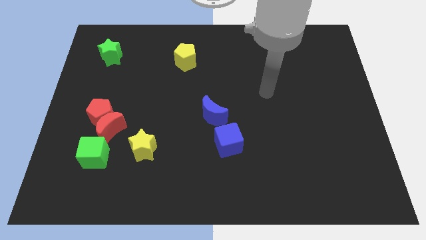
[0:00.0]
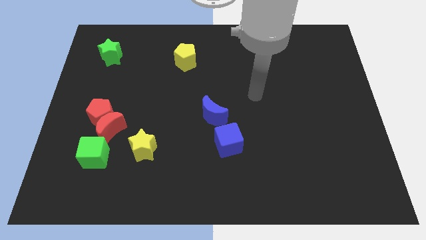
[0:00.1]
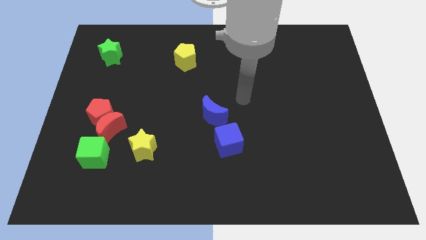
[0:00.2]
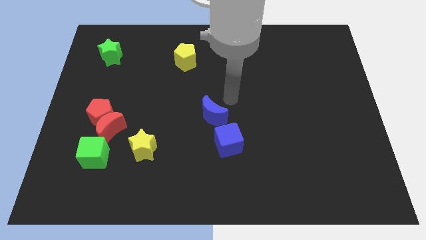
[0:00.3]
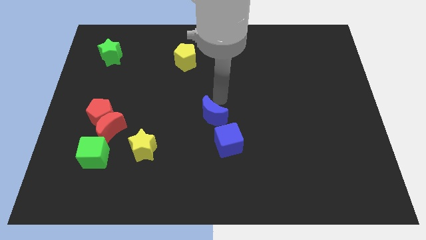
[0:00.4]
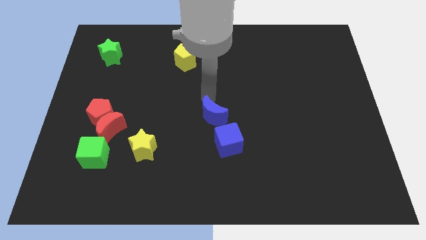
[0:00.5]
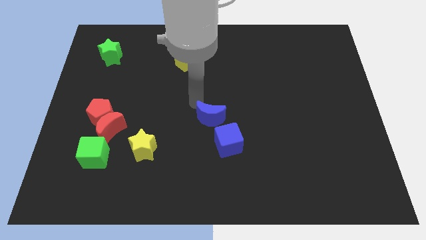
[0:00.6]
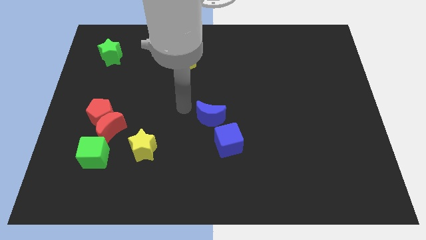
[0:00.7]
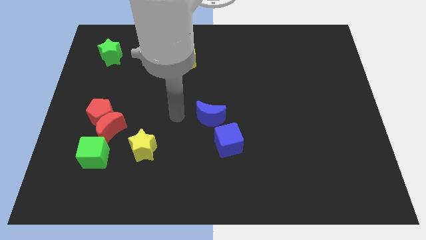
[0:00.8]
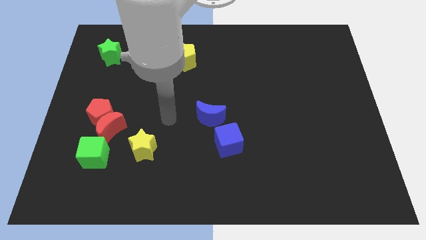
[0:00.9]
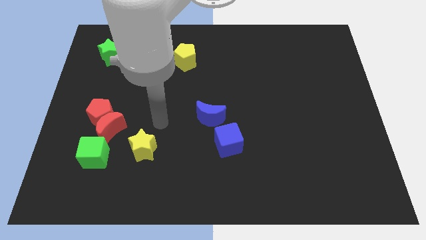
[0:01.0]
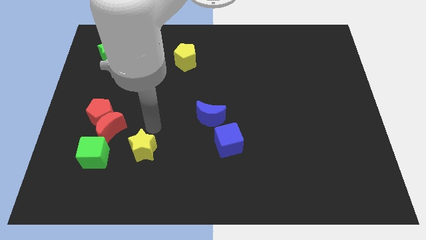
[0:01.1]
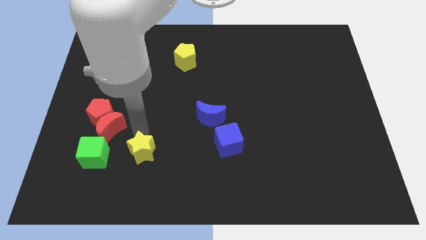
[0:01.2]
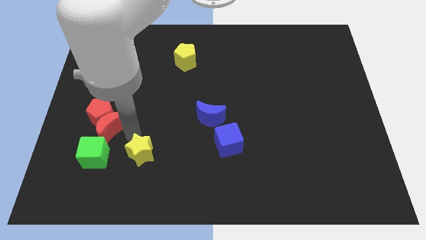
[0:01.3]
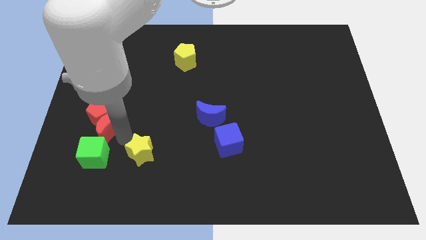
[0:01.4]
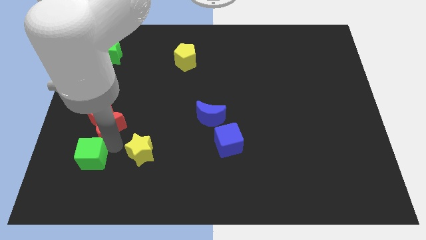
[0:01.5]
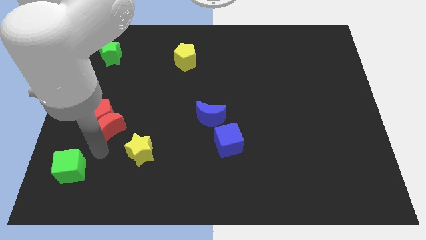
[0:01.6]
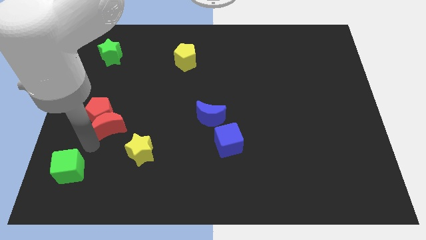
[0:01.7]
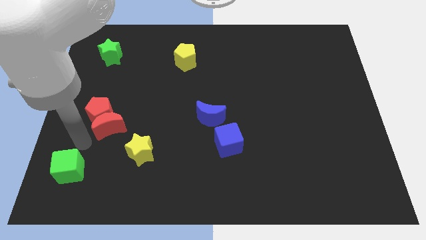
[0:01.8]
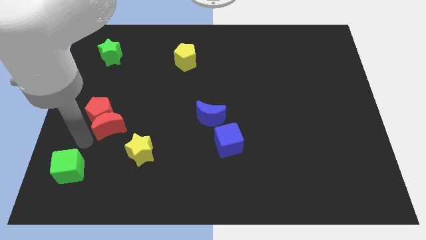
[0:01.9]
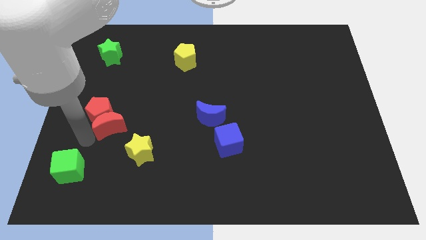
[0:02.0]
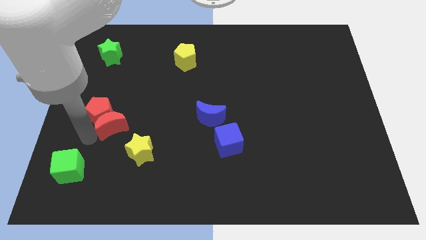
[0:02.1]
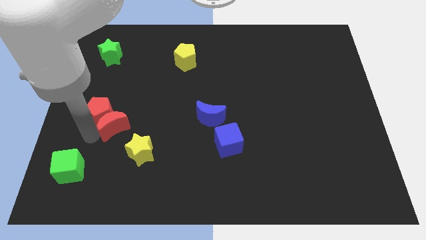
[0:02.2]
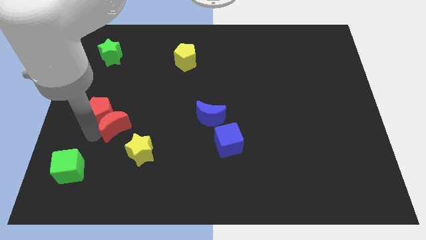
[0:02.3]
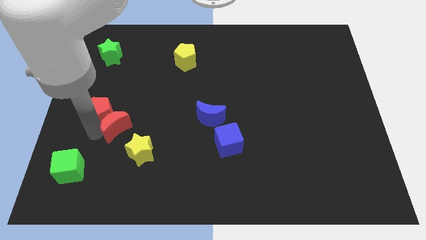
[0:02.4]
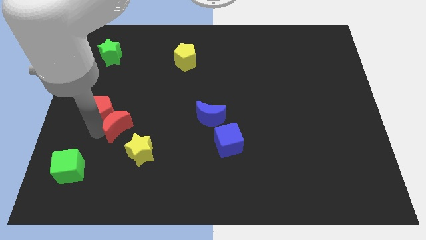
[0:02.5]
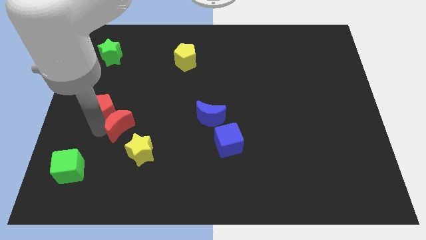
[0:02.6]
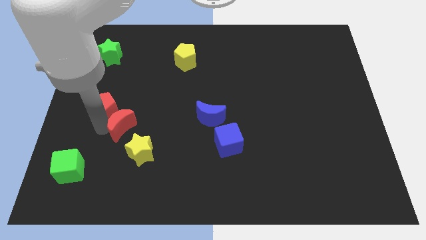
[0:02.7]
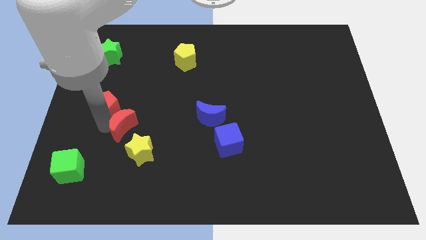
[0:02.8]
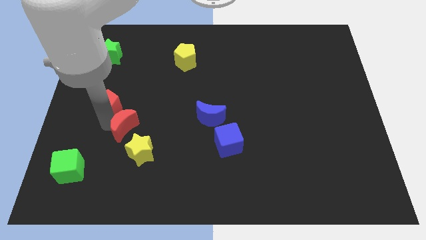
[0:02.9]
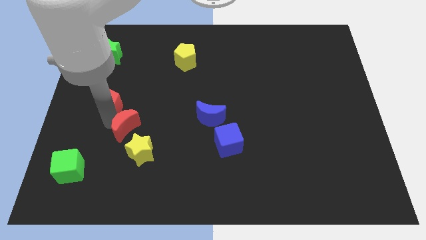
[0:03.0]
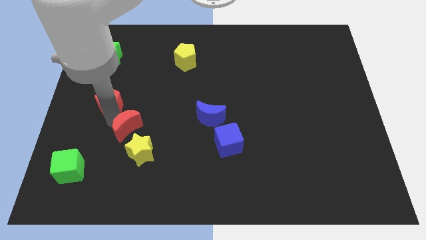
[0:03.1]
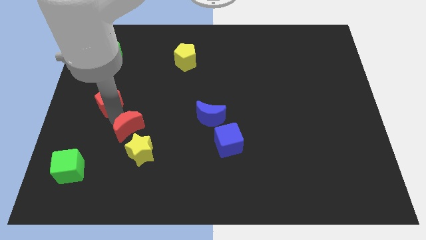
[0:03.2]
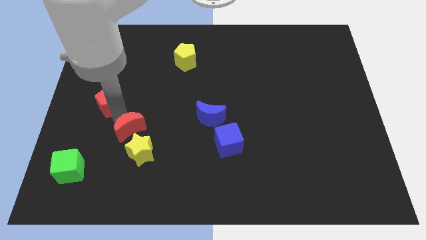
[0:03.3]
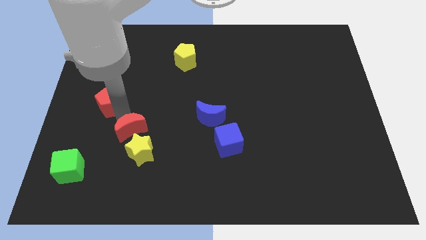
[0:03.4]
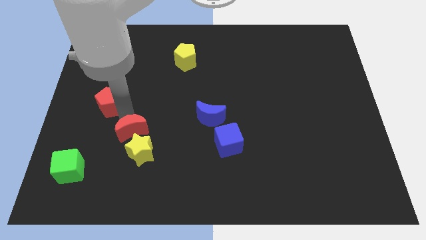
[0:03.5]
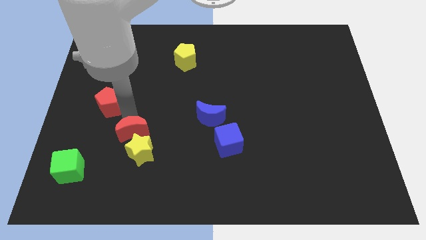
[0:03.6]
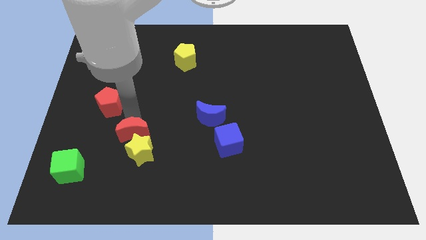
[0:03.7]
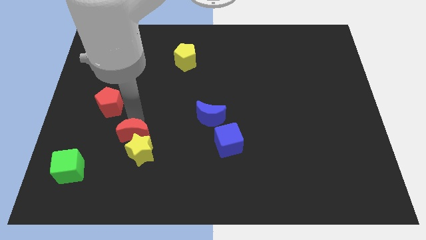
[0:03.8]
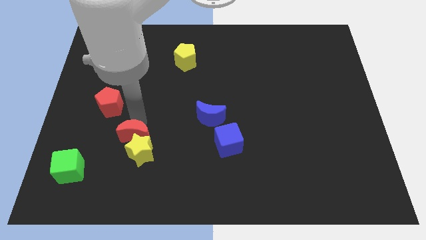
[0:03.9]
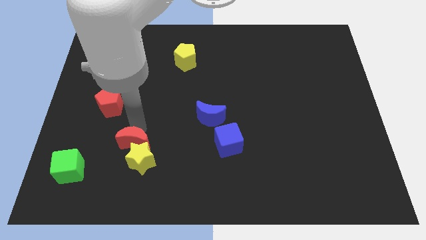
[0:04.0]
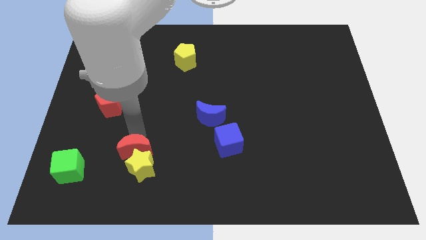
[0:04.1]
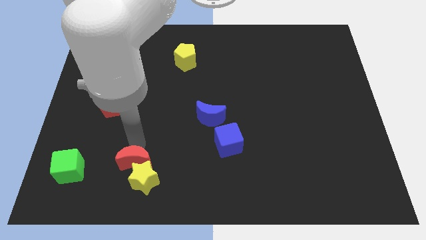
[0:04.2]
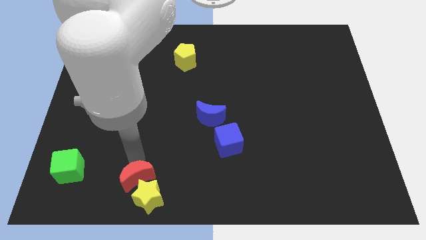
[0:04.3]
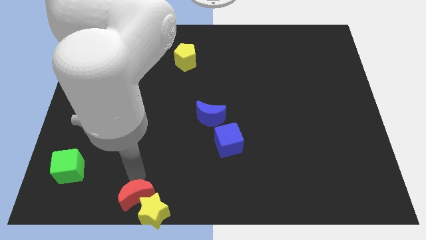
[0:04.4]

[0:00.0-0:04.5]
separate the red moon from the red pentagon, green cube, and yellow star

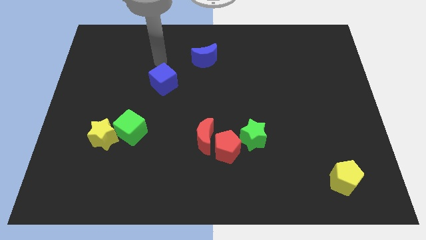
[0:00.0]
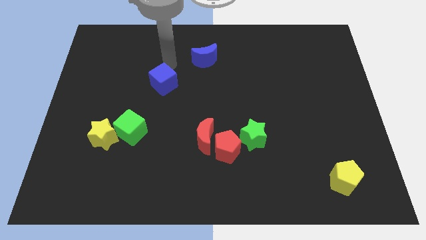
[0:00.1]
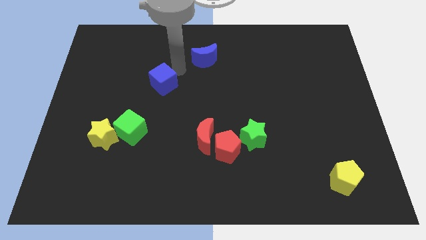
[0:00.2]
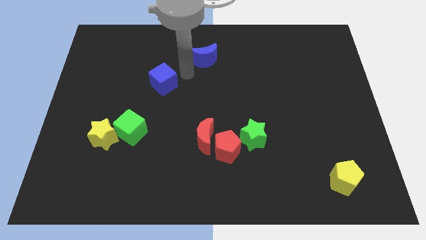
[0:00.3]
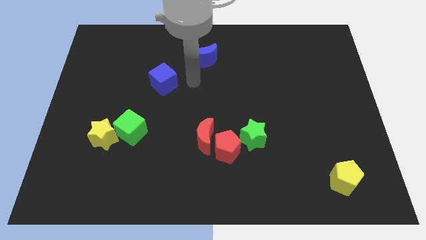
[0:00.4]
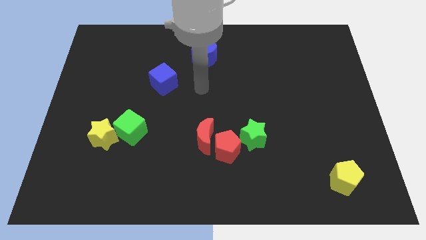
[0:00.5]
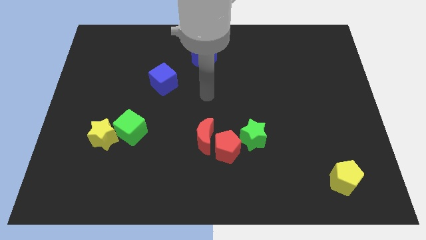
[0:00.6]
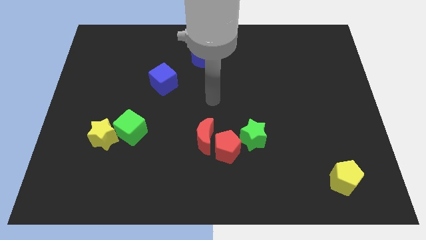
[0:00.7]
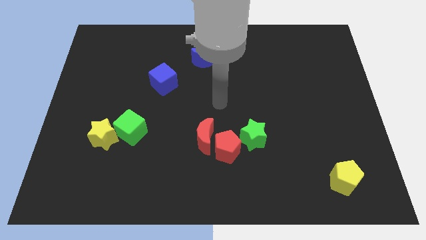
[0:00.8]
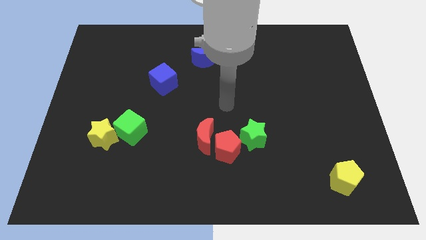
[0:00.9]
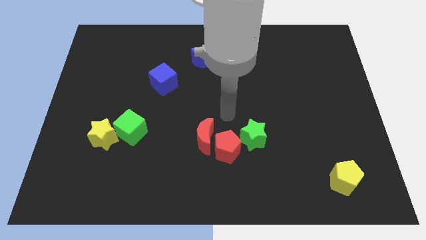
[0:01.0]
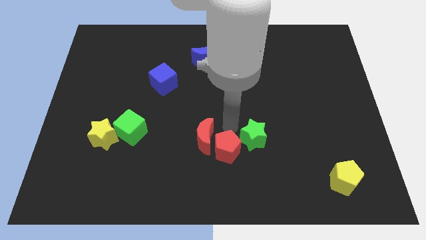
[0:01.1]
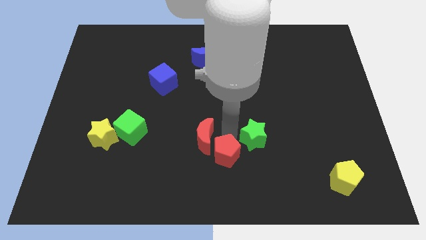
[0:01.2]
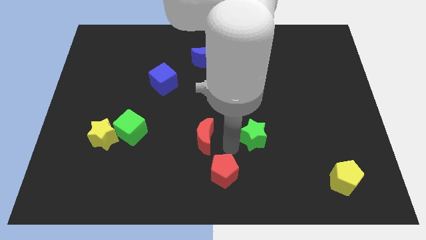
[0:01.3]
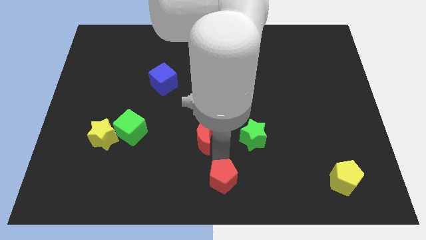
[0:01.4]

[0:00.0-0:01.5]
pull the red moon apart from the red pentagon

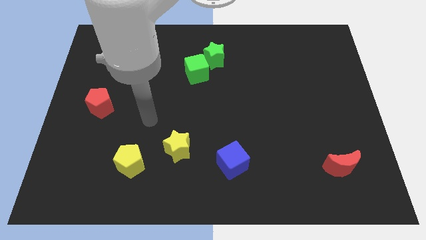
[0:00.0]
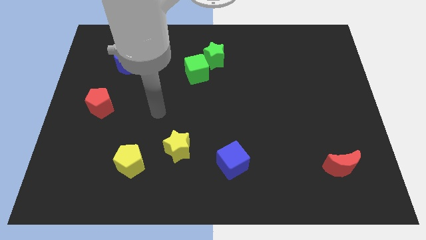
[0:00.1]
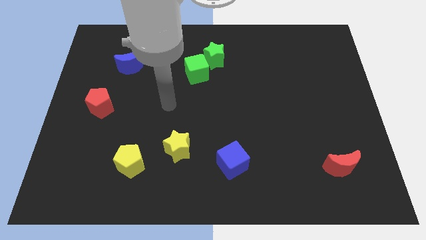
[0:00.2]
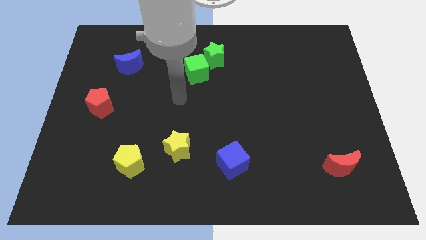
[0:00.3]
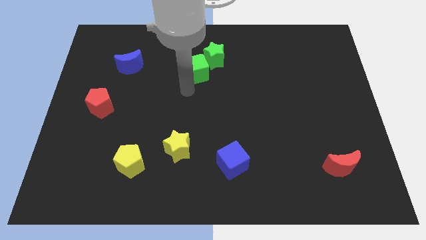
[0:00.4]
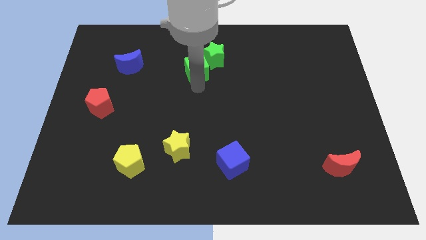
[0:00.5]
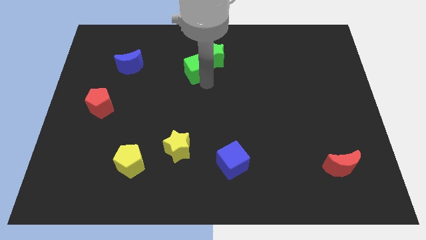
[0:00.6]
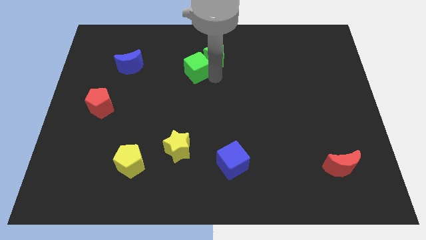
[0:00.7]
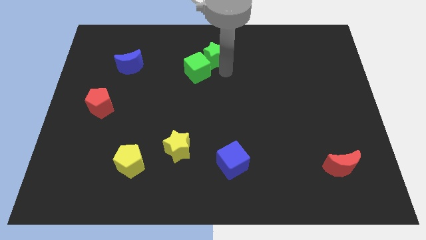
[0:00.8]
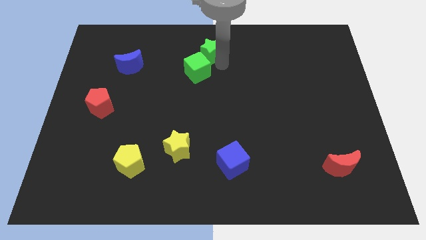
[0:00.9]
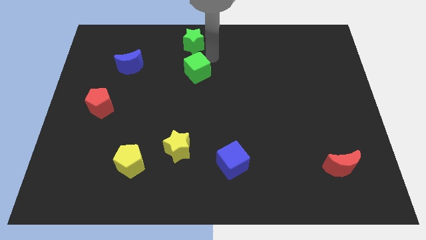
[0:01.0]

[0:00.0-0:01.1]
move the green cube away from the green star

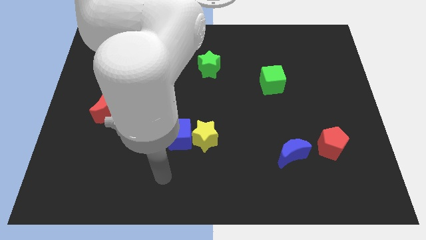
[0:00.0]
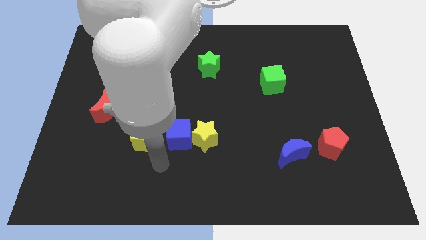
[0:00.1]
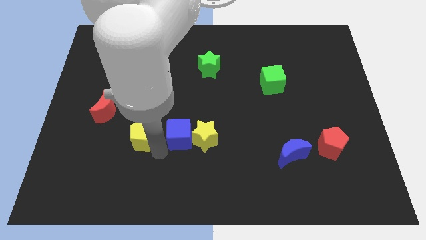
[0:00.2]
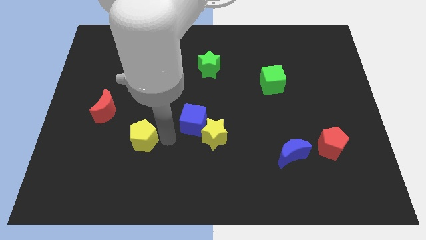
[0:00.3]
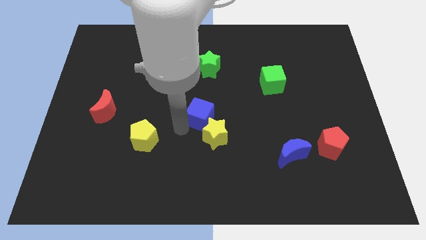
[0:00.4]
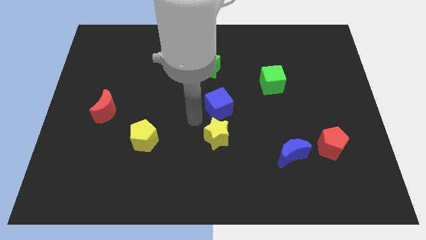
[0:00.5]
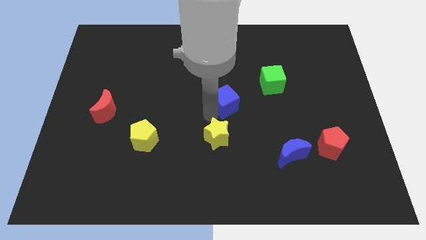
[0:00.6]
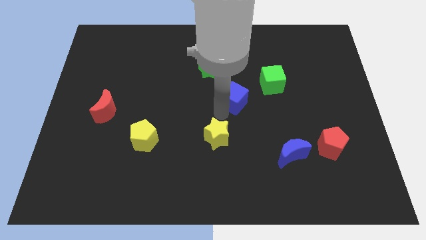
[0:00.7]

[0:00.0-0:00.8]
separate the yellow star from the blue cube

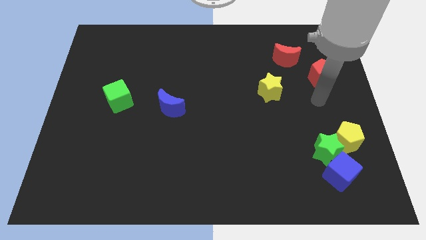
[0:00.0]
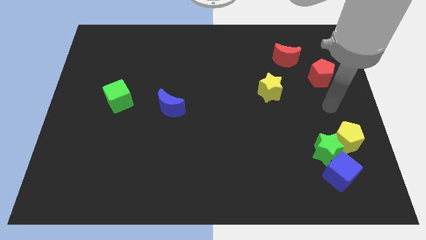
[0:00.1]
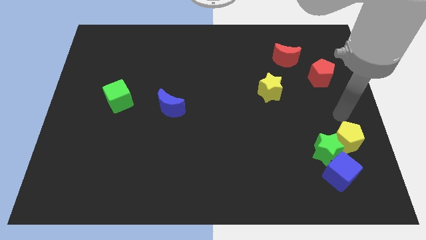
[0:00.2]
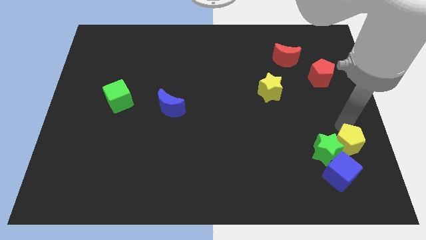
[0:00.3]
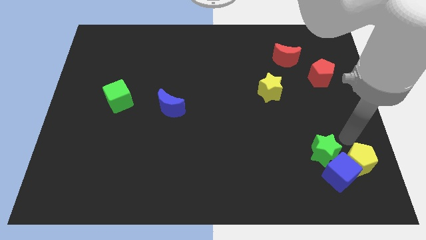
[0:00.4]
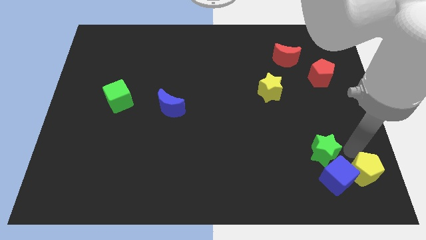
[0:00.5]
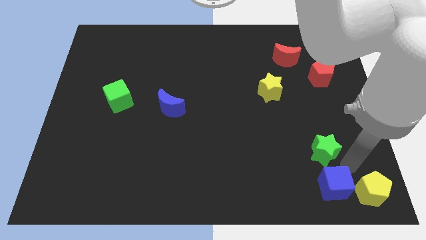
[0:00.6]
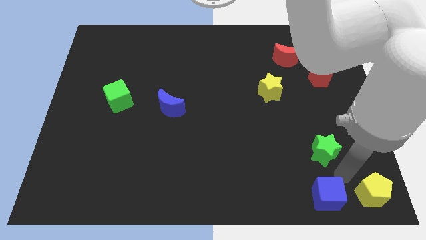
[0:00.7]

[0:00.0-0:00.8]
separate the green star from the yellow pentagon and blue cube

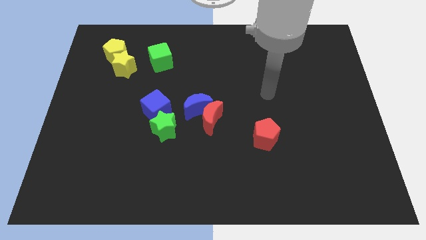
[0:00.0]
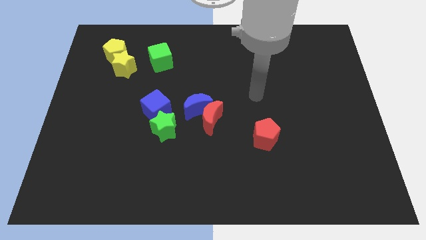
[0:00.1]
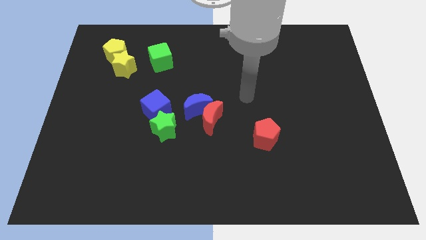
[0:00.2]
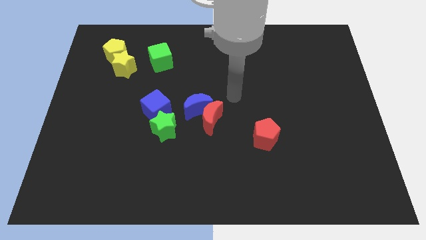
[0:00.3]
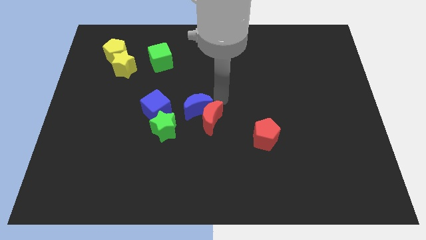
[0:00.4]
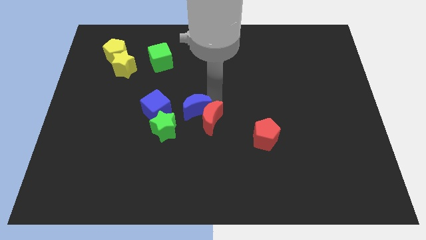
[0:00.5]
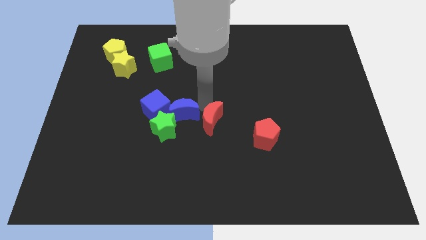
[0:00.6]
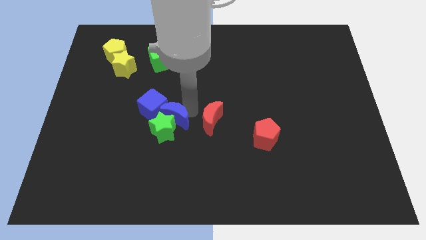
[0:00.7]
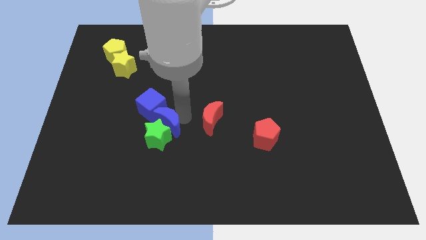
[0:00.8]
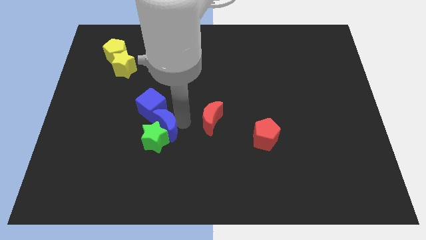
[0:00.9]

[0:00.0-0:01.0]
move the red moon away from the blue moon
